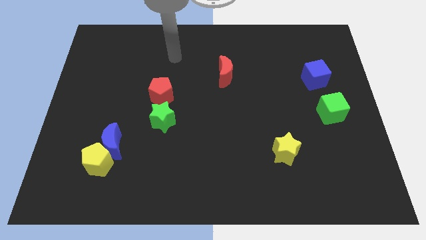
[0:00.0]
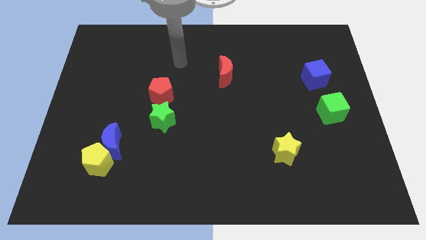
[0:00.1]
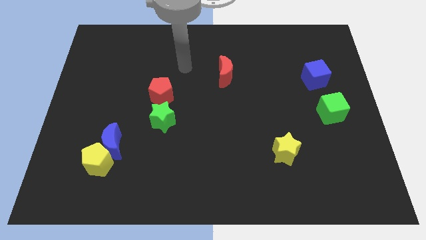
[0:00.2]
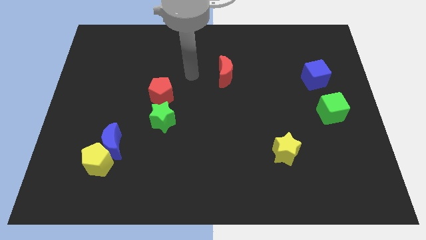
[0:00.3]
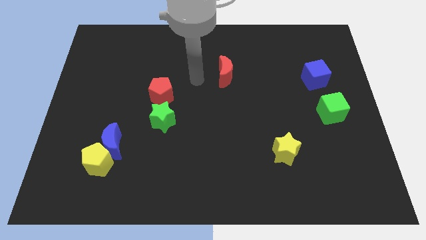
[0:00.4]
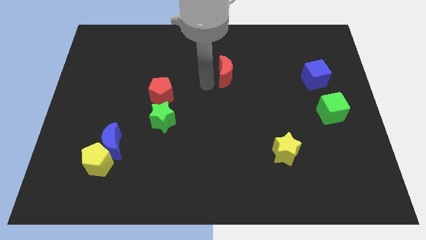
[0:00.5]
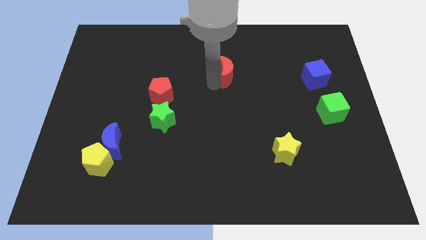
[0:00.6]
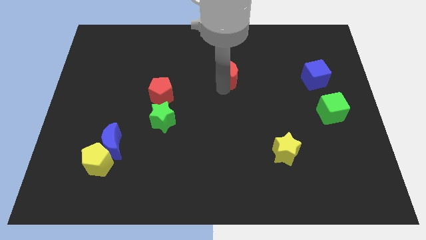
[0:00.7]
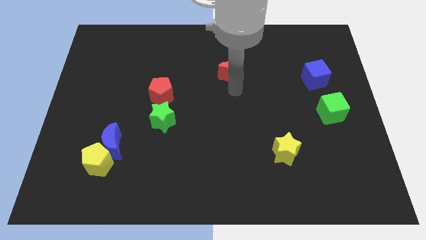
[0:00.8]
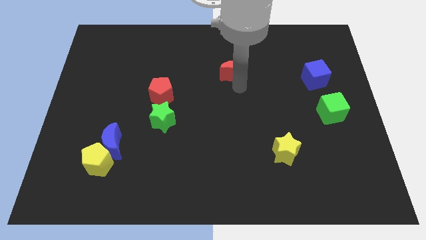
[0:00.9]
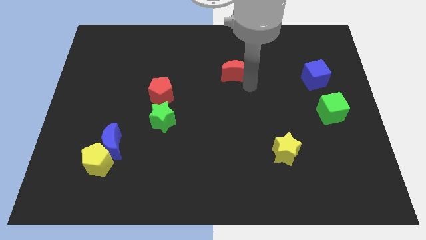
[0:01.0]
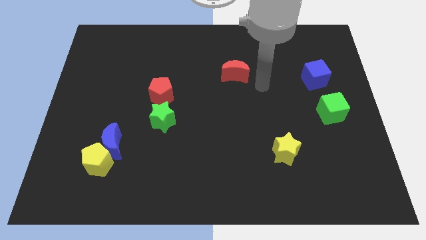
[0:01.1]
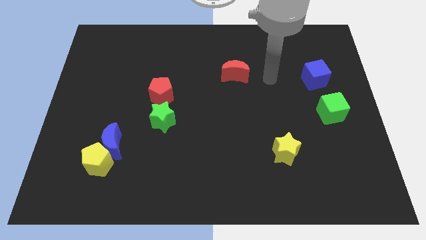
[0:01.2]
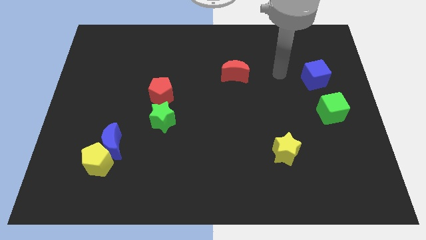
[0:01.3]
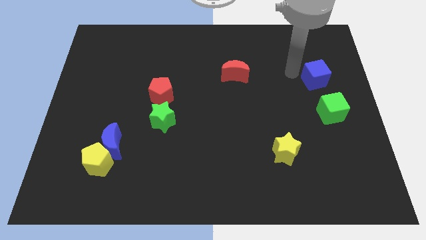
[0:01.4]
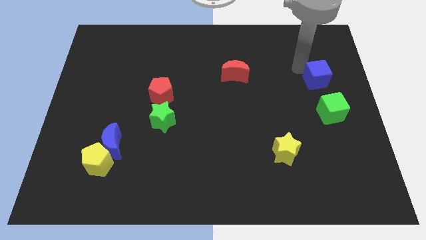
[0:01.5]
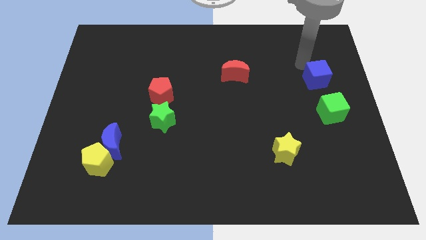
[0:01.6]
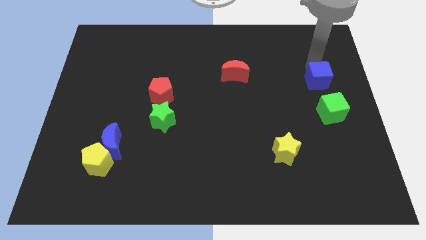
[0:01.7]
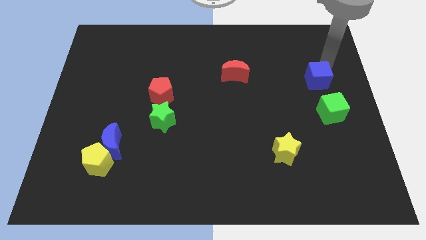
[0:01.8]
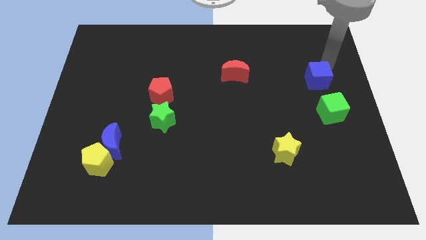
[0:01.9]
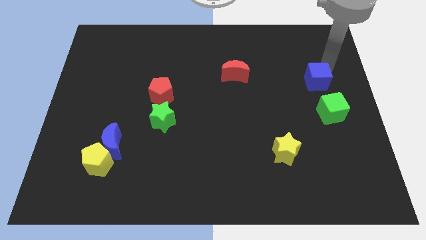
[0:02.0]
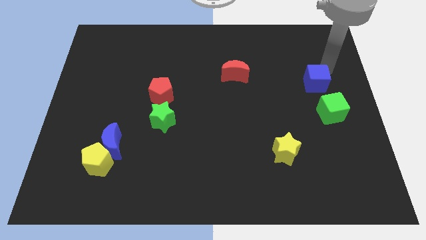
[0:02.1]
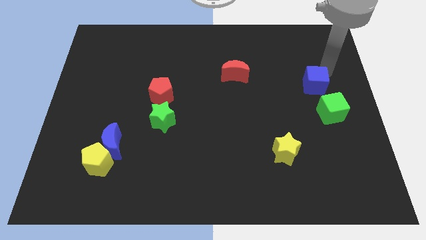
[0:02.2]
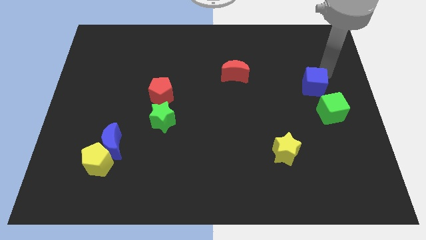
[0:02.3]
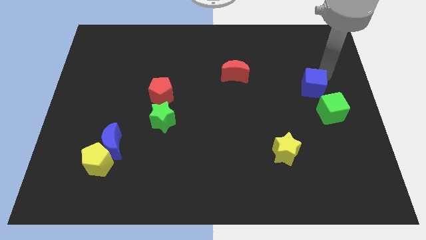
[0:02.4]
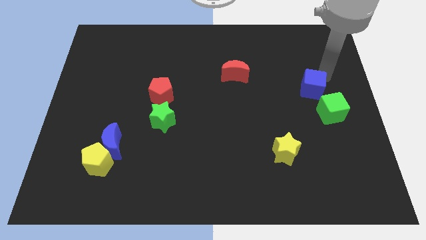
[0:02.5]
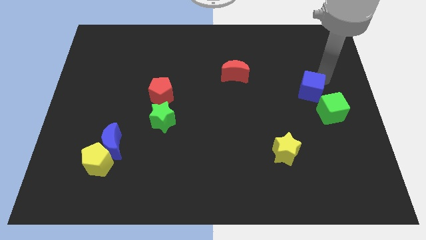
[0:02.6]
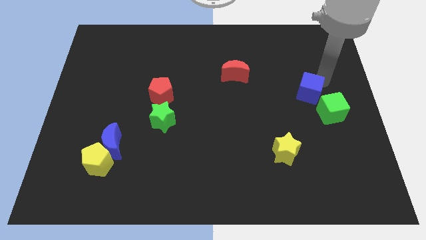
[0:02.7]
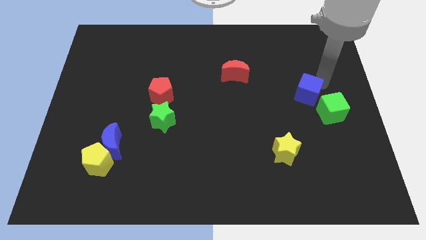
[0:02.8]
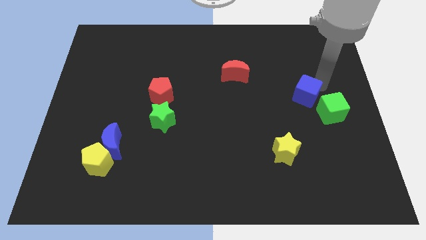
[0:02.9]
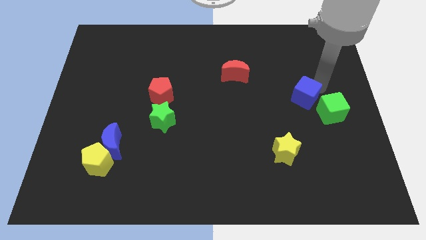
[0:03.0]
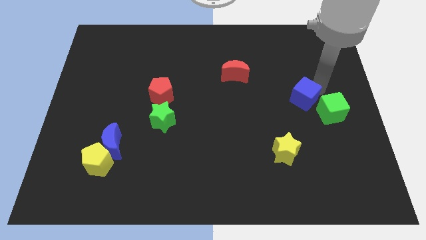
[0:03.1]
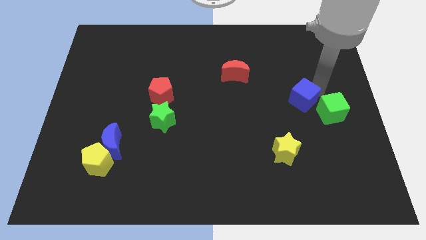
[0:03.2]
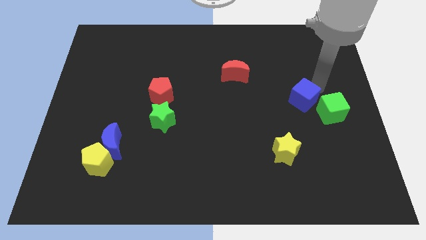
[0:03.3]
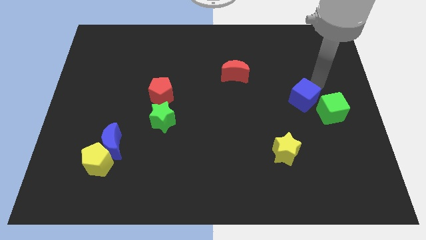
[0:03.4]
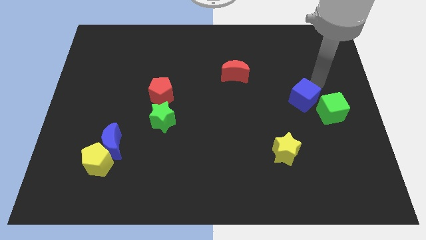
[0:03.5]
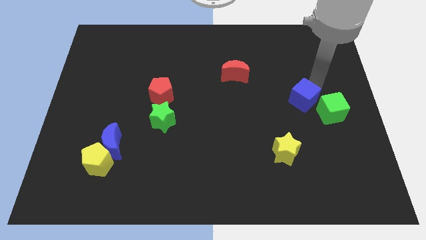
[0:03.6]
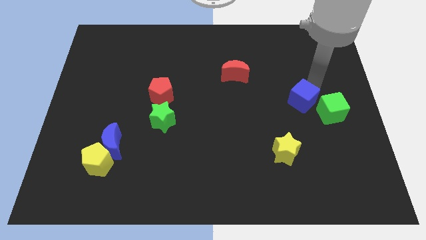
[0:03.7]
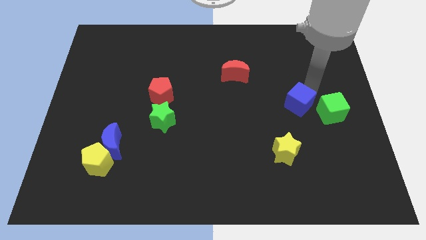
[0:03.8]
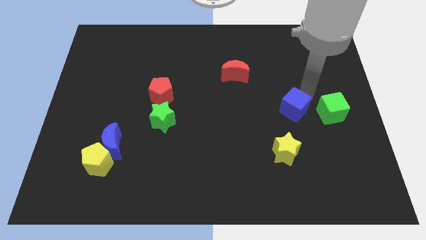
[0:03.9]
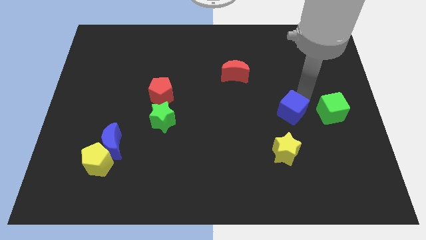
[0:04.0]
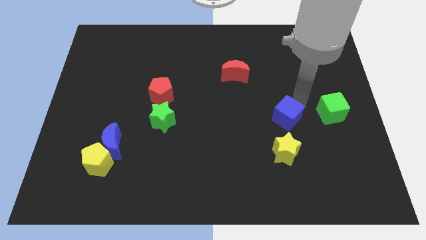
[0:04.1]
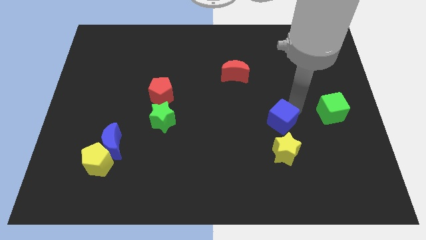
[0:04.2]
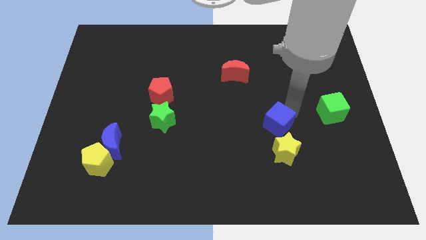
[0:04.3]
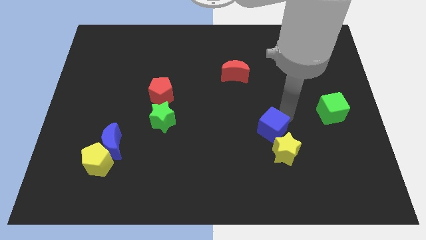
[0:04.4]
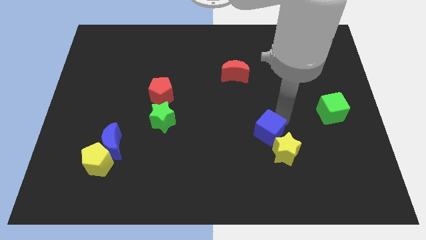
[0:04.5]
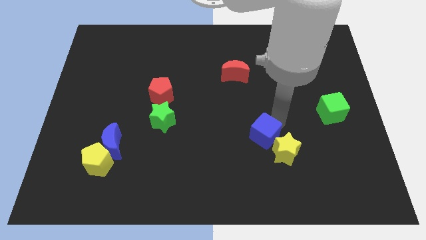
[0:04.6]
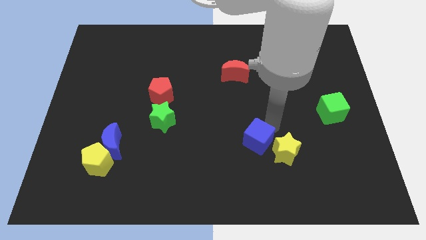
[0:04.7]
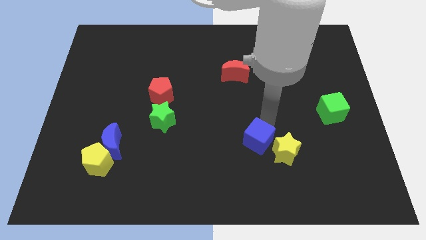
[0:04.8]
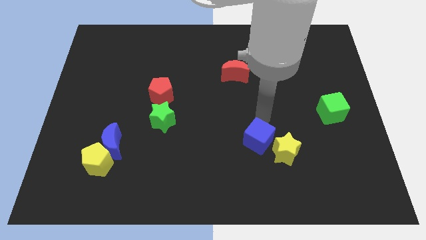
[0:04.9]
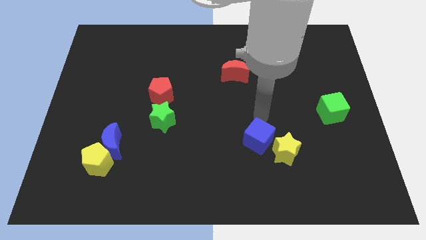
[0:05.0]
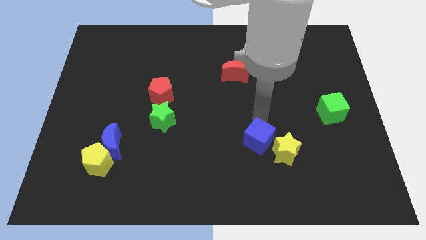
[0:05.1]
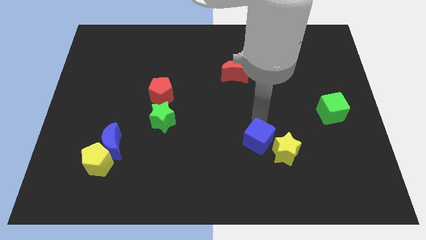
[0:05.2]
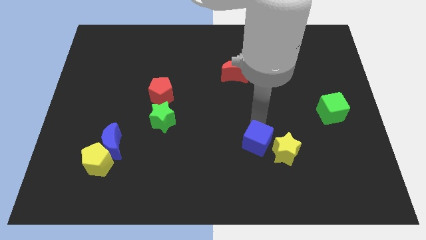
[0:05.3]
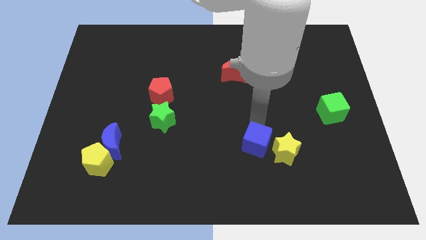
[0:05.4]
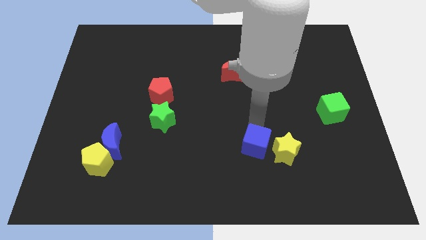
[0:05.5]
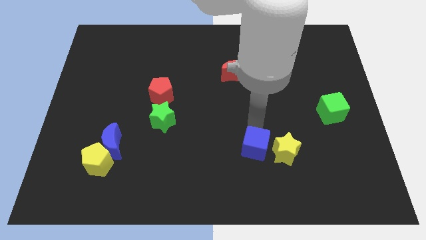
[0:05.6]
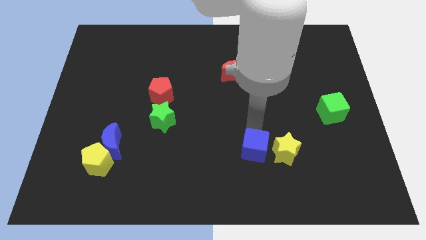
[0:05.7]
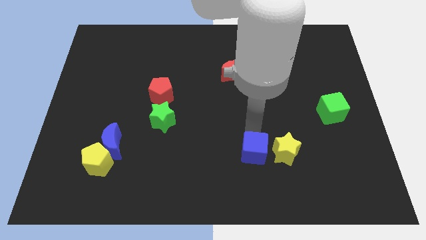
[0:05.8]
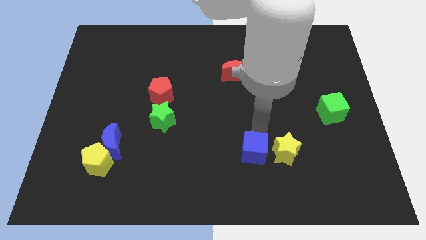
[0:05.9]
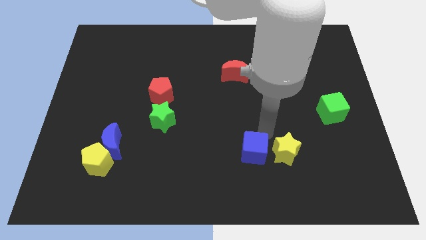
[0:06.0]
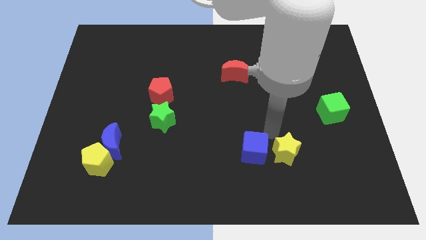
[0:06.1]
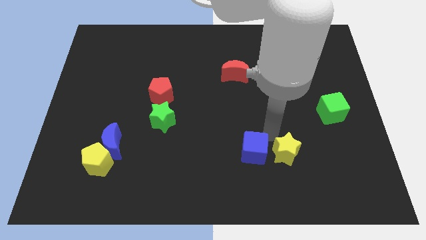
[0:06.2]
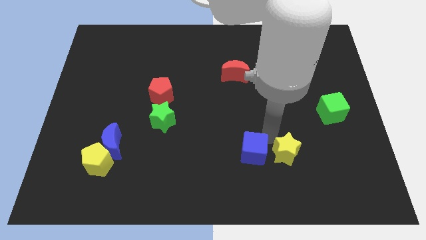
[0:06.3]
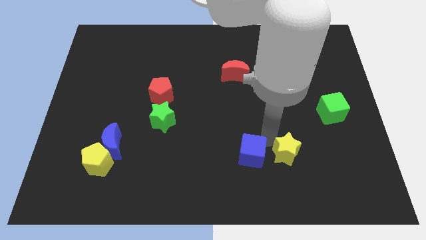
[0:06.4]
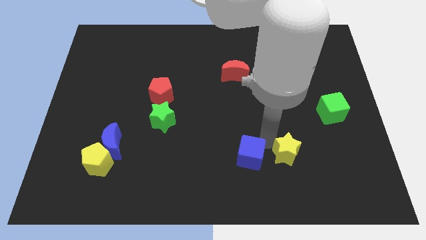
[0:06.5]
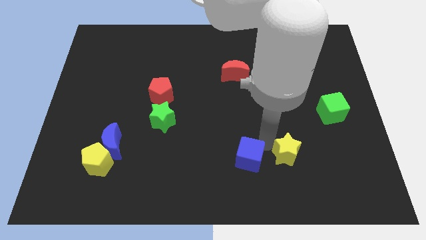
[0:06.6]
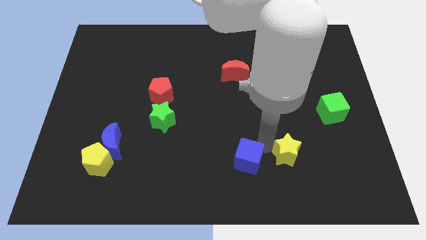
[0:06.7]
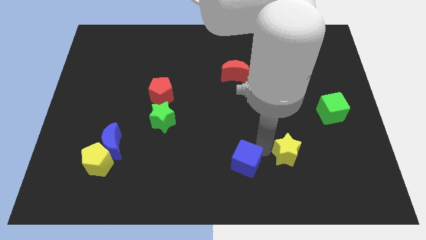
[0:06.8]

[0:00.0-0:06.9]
slide the blue cube to the bottom side

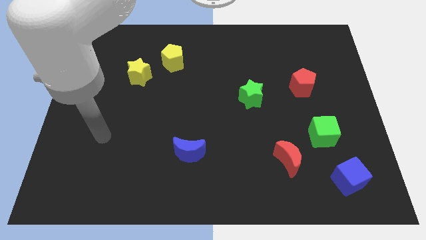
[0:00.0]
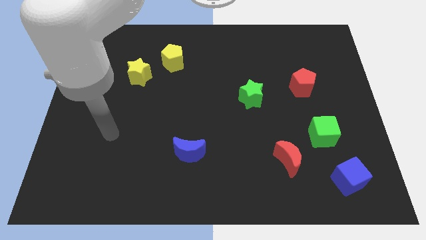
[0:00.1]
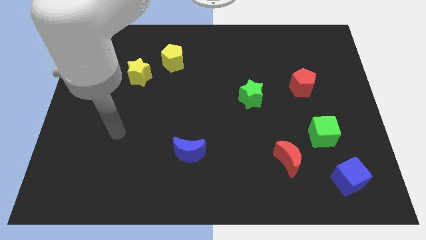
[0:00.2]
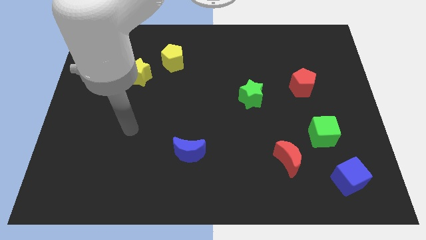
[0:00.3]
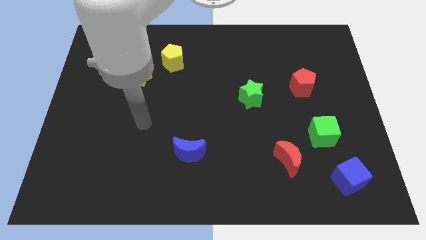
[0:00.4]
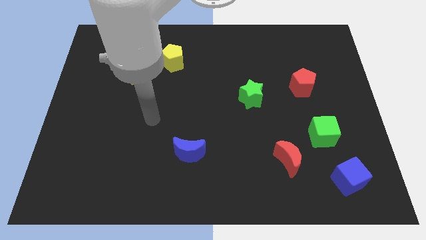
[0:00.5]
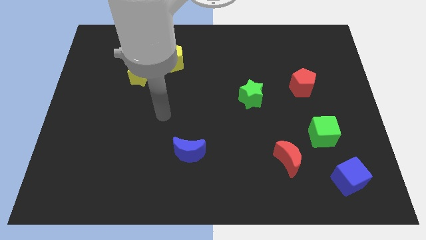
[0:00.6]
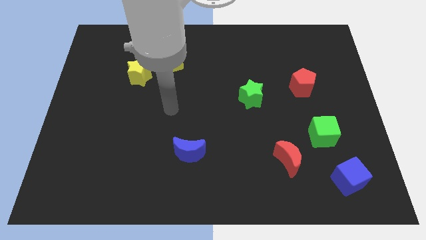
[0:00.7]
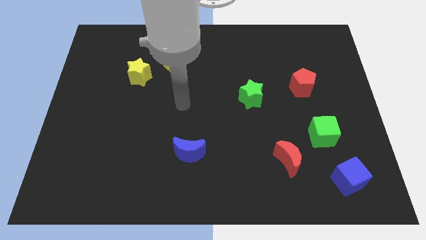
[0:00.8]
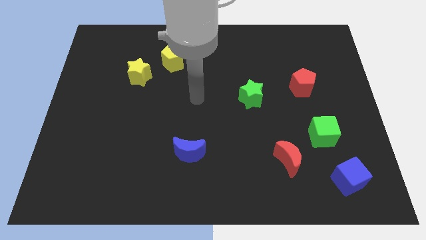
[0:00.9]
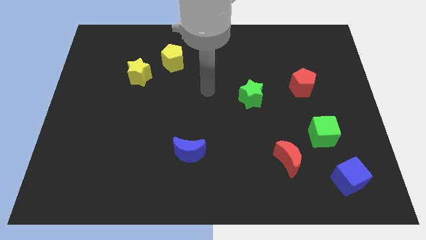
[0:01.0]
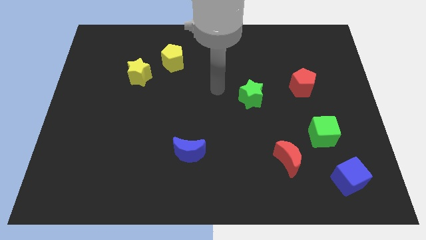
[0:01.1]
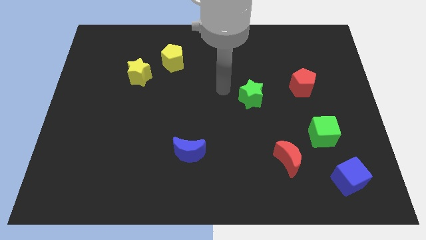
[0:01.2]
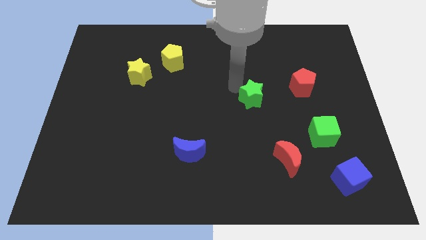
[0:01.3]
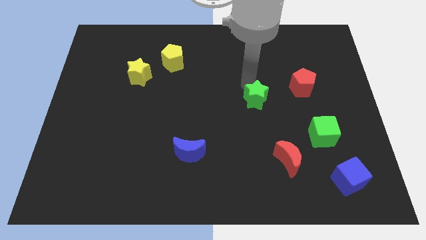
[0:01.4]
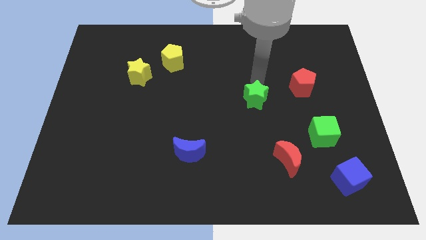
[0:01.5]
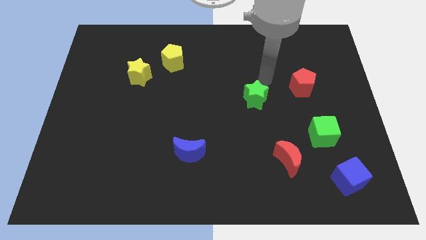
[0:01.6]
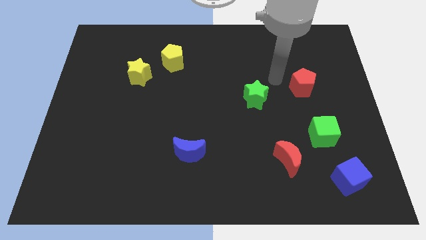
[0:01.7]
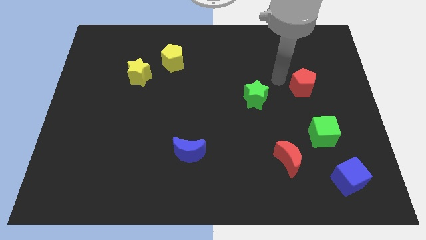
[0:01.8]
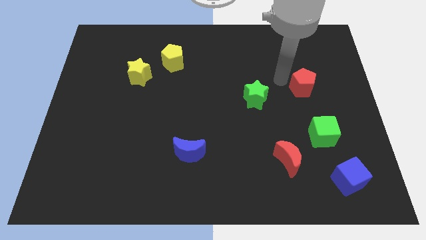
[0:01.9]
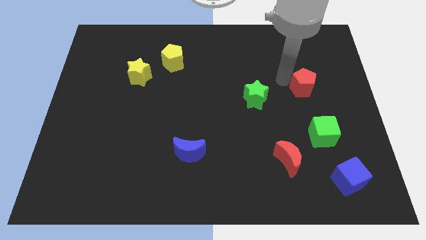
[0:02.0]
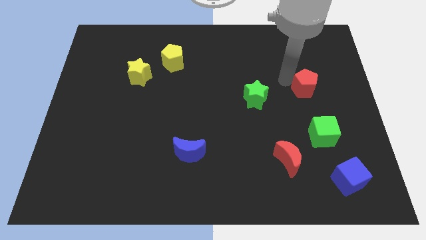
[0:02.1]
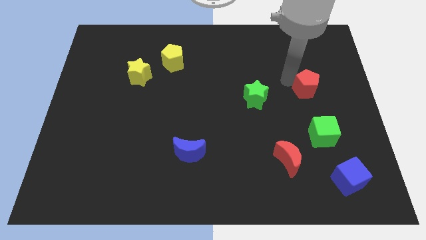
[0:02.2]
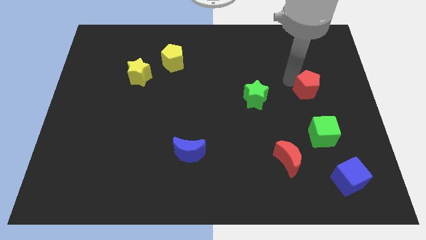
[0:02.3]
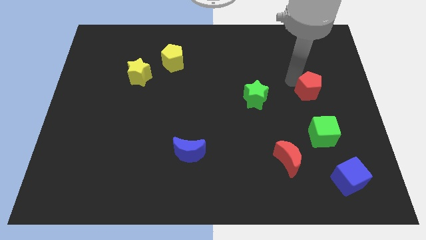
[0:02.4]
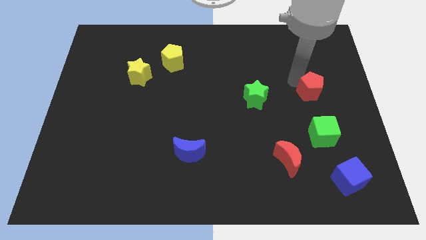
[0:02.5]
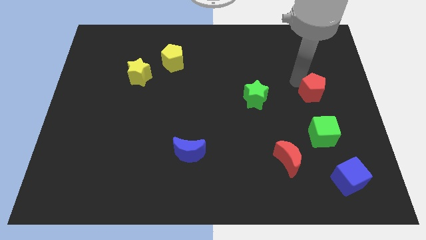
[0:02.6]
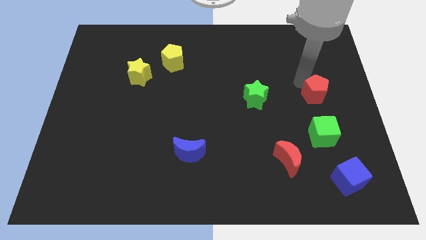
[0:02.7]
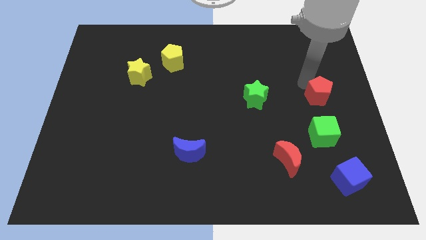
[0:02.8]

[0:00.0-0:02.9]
slide the red pentagon to the right side of the board
